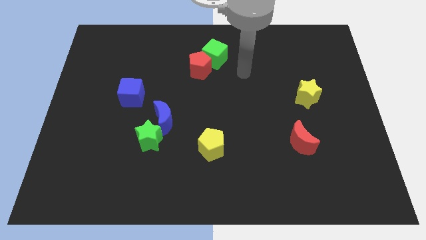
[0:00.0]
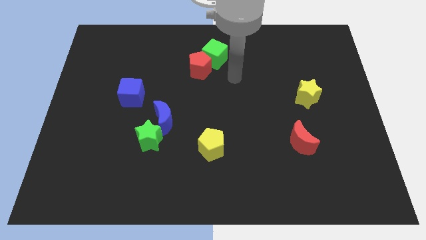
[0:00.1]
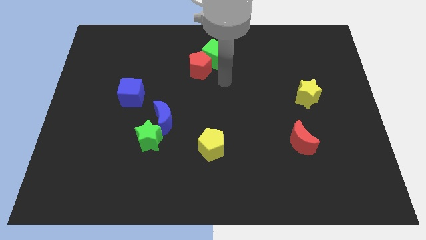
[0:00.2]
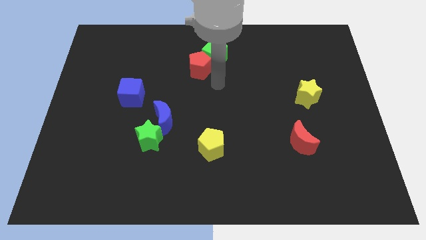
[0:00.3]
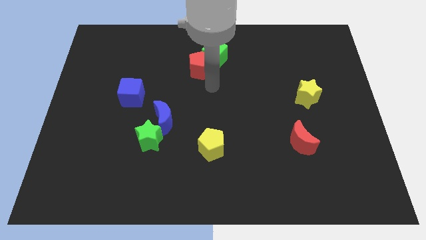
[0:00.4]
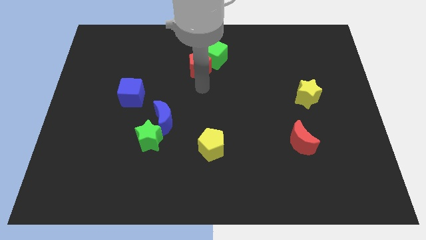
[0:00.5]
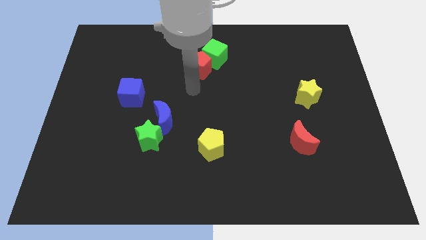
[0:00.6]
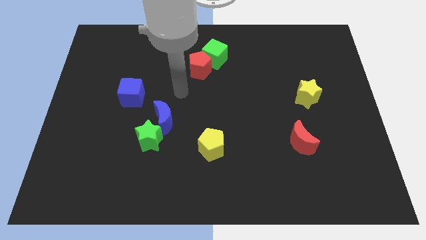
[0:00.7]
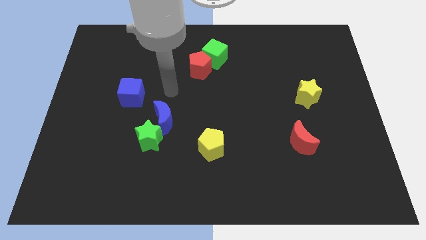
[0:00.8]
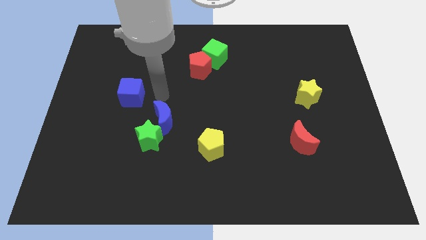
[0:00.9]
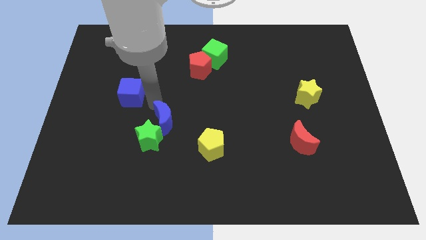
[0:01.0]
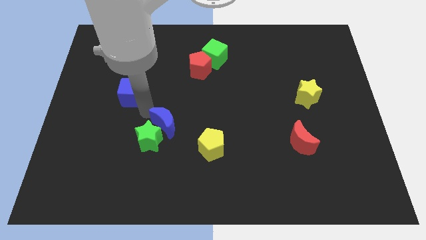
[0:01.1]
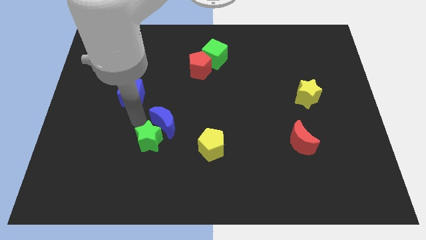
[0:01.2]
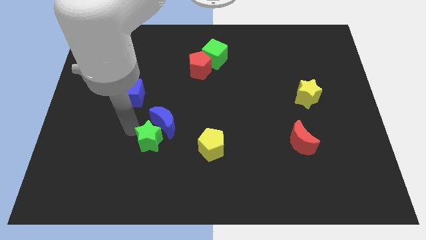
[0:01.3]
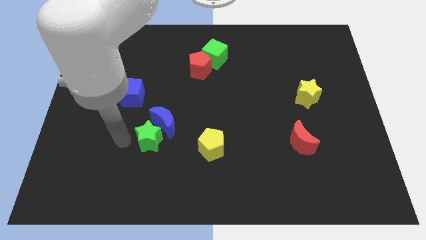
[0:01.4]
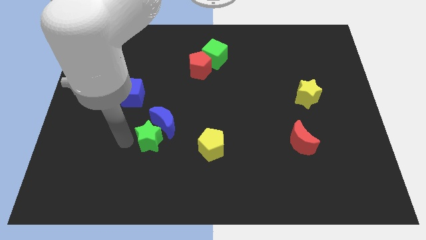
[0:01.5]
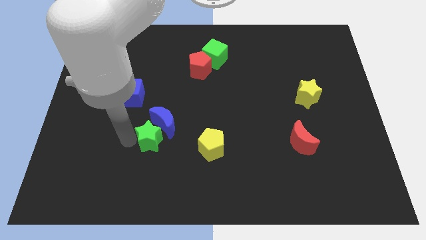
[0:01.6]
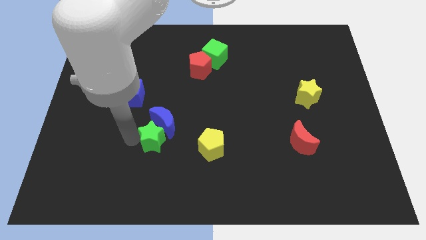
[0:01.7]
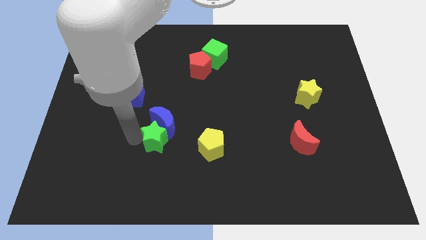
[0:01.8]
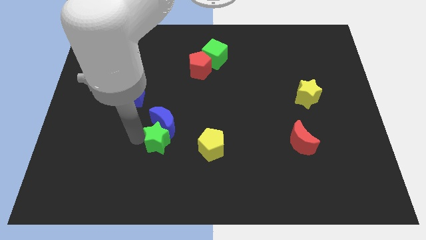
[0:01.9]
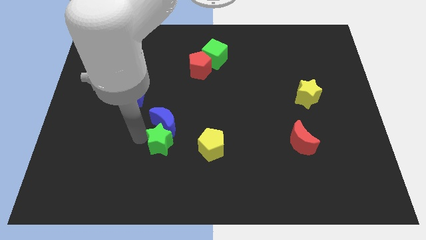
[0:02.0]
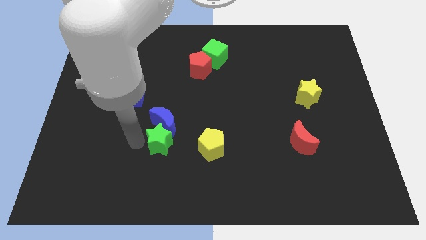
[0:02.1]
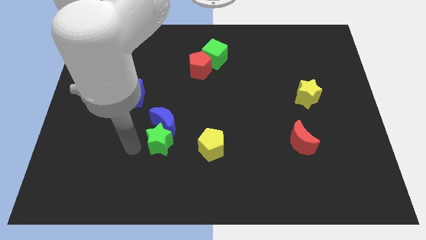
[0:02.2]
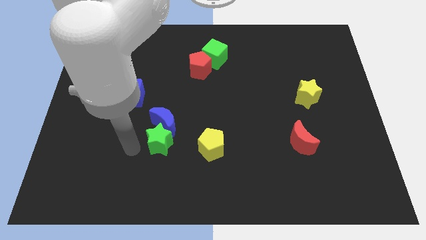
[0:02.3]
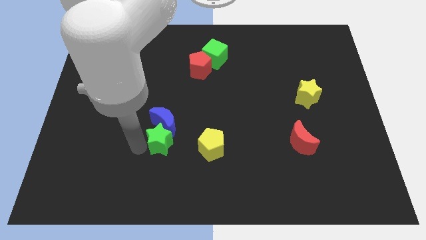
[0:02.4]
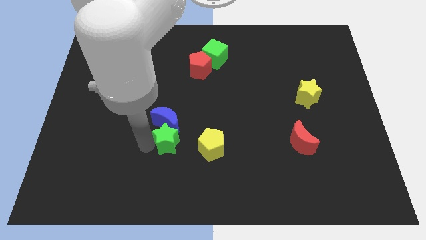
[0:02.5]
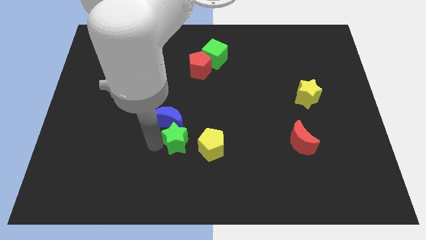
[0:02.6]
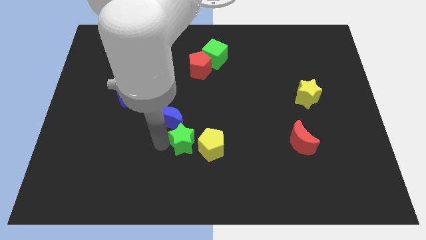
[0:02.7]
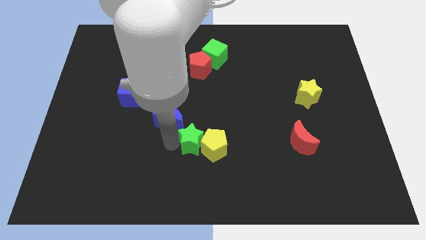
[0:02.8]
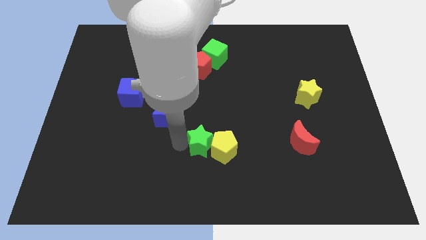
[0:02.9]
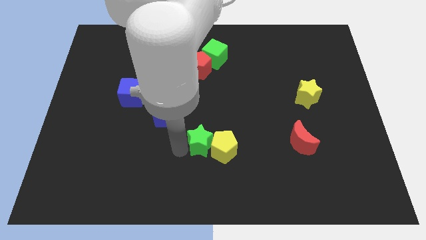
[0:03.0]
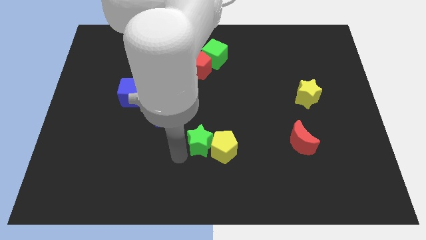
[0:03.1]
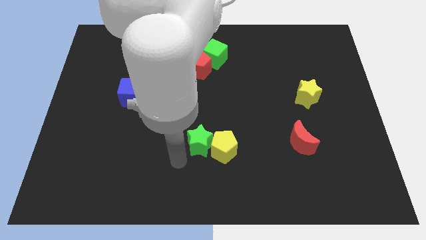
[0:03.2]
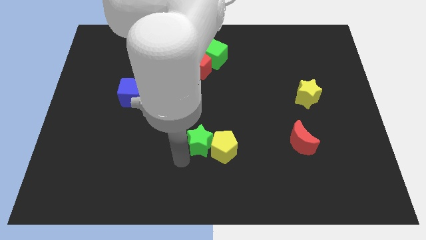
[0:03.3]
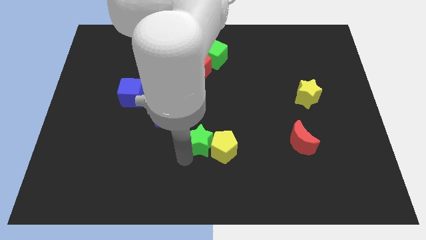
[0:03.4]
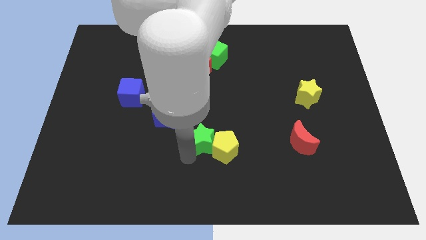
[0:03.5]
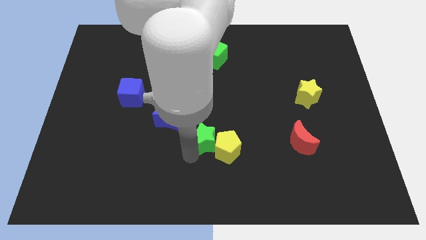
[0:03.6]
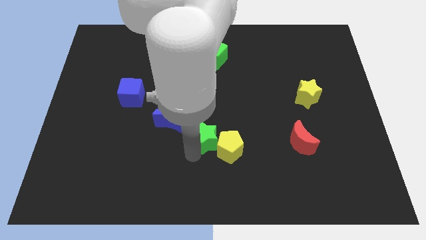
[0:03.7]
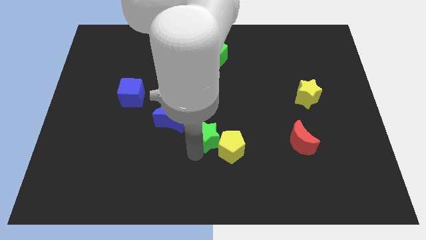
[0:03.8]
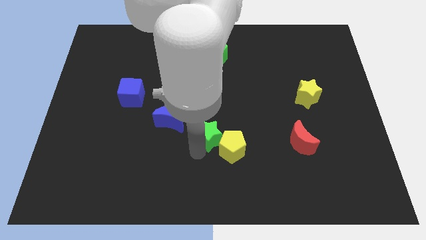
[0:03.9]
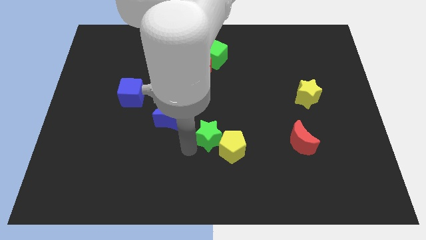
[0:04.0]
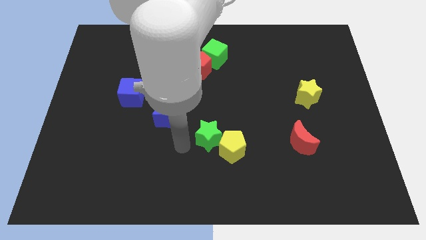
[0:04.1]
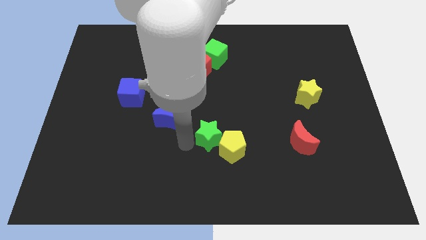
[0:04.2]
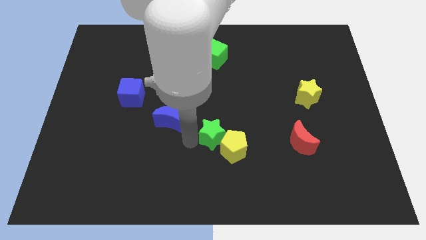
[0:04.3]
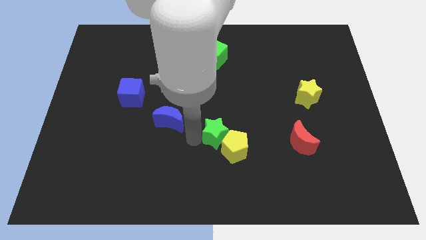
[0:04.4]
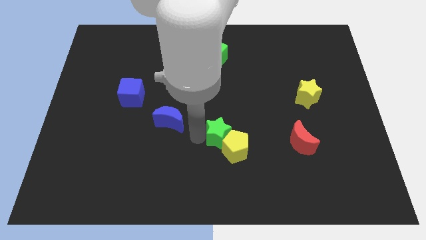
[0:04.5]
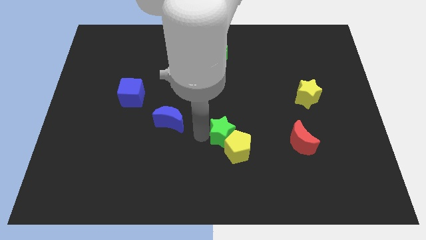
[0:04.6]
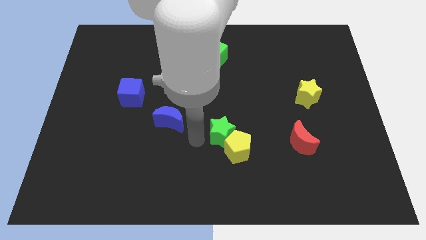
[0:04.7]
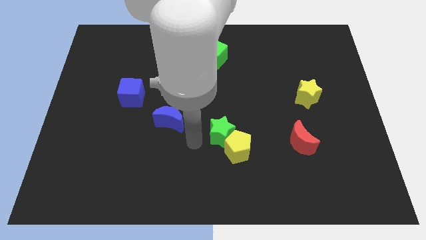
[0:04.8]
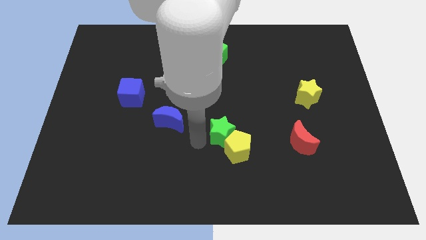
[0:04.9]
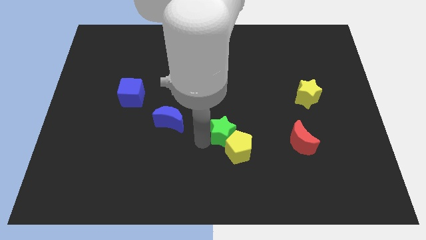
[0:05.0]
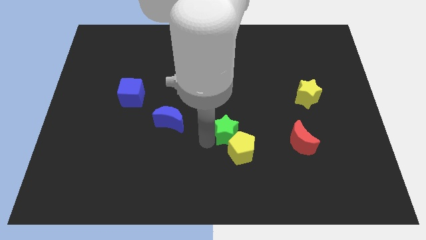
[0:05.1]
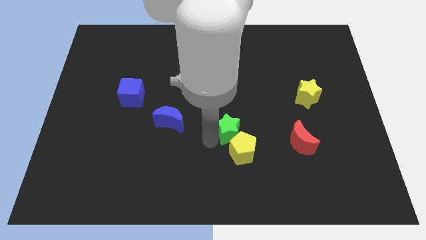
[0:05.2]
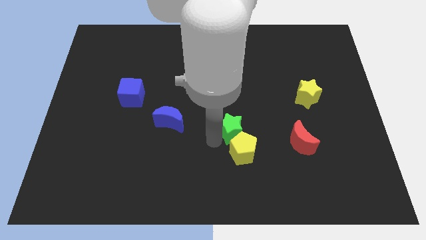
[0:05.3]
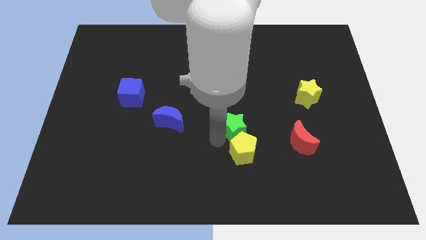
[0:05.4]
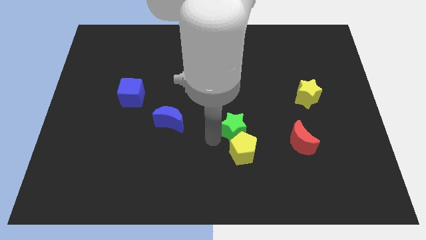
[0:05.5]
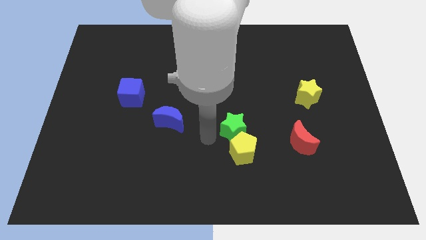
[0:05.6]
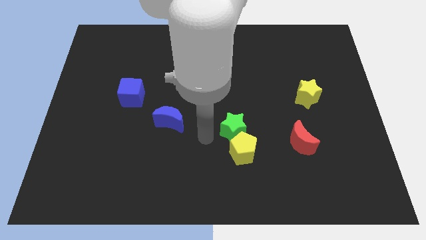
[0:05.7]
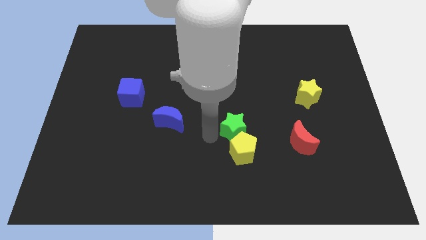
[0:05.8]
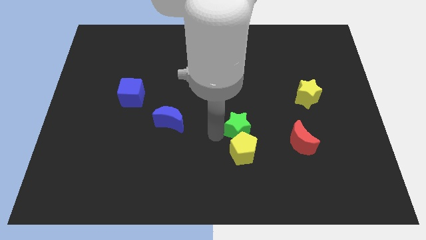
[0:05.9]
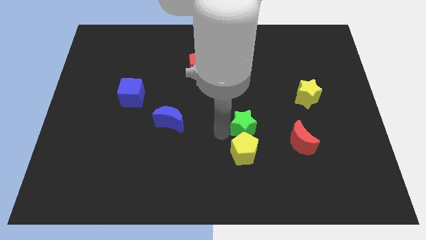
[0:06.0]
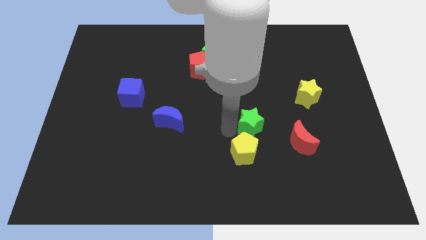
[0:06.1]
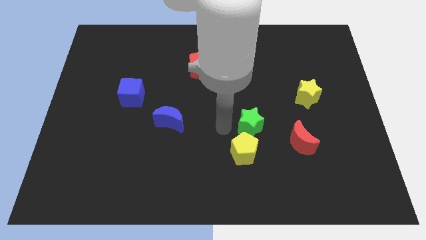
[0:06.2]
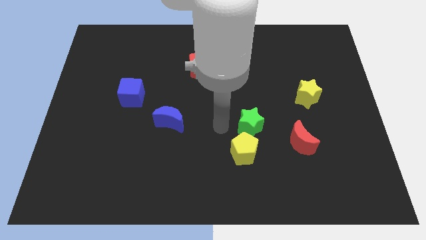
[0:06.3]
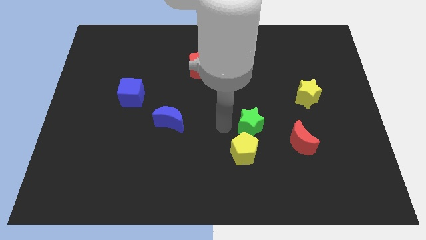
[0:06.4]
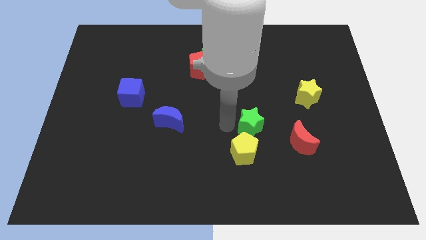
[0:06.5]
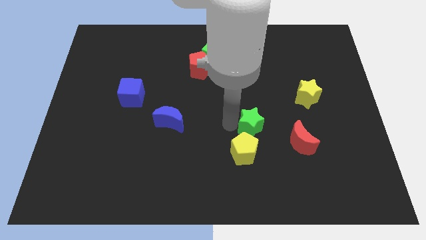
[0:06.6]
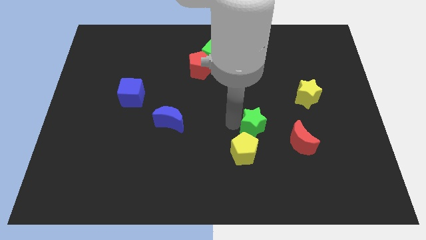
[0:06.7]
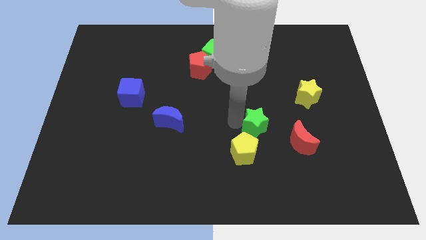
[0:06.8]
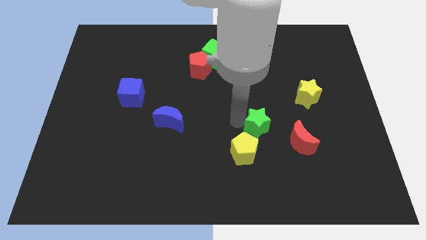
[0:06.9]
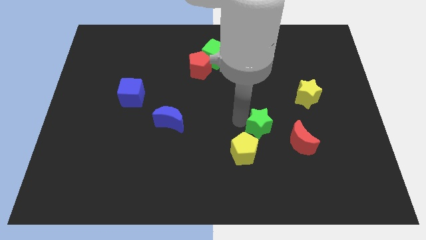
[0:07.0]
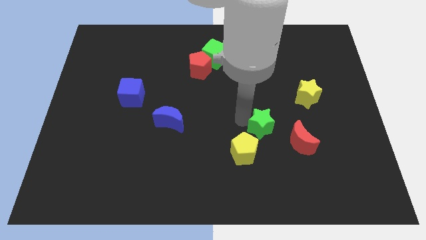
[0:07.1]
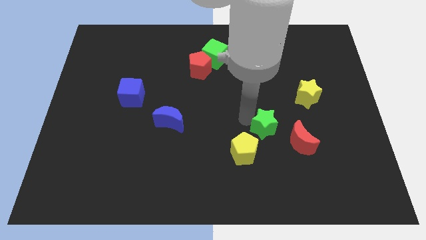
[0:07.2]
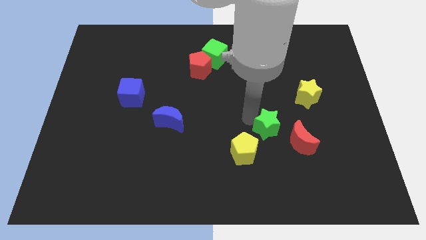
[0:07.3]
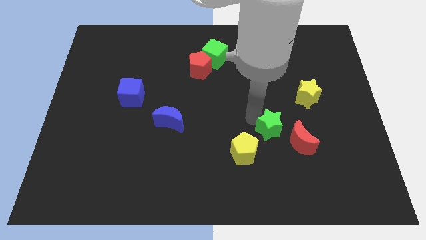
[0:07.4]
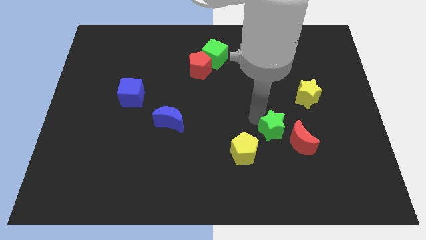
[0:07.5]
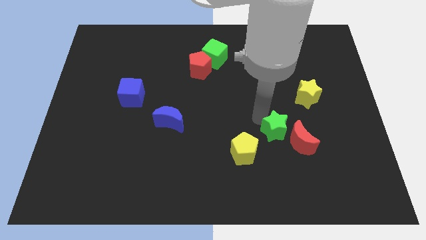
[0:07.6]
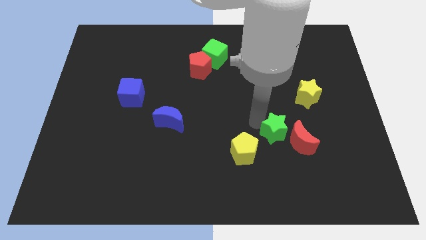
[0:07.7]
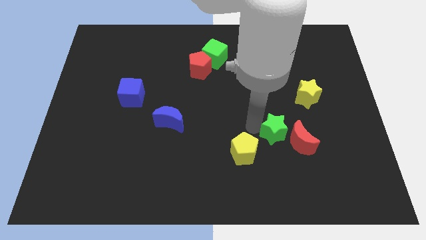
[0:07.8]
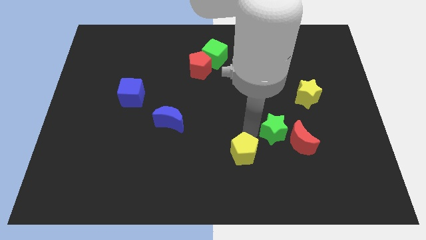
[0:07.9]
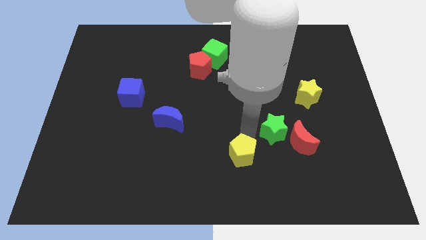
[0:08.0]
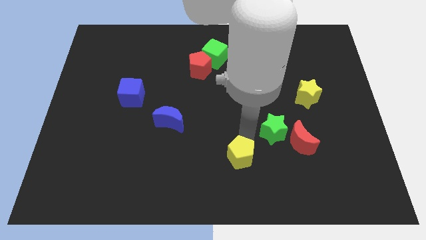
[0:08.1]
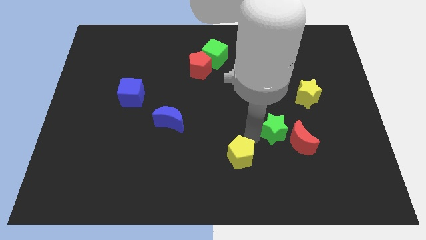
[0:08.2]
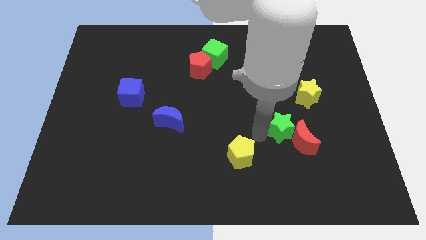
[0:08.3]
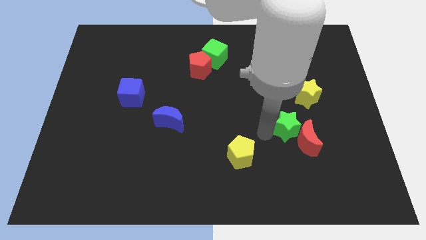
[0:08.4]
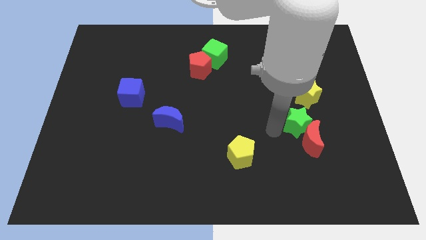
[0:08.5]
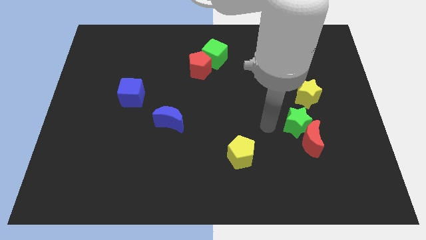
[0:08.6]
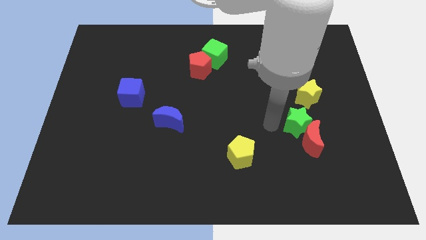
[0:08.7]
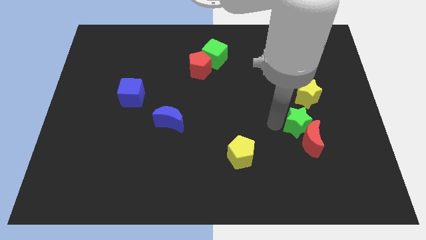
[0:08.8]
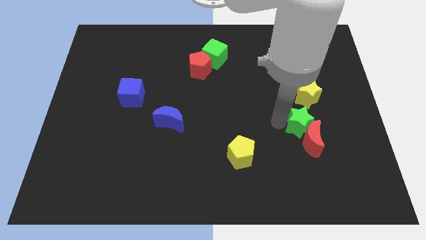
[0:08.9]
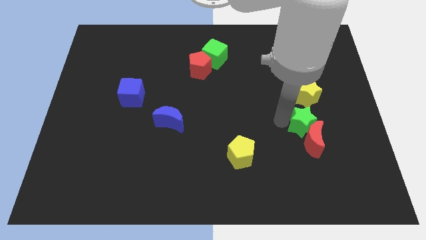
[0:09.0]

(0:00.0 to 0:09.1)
put the green star to the top right side of the red moon
